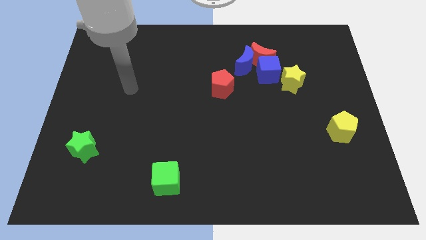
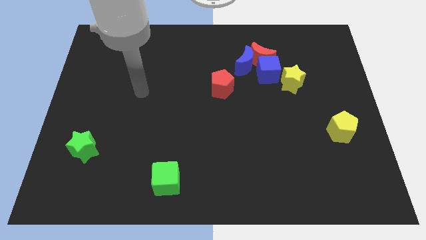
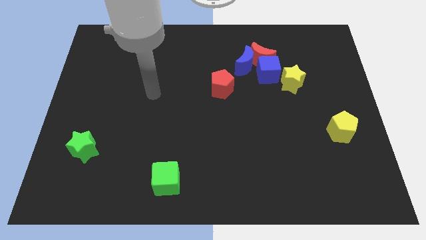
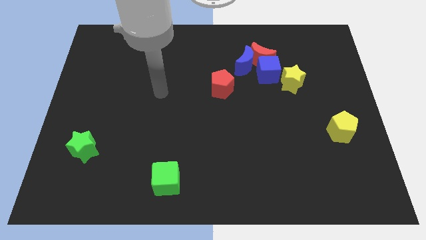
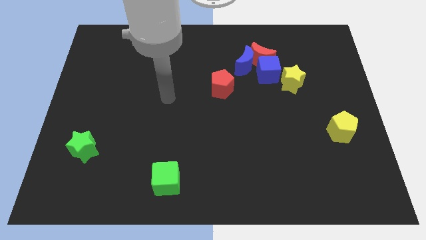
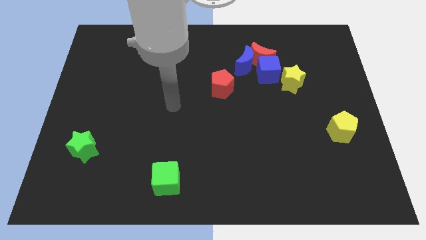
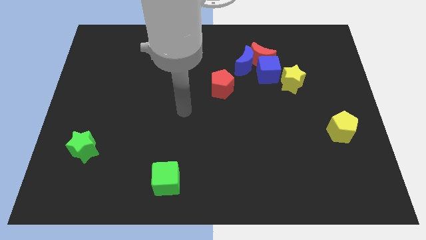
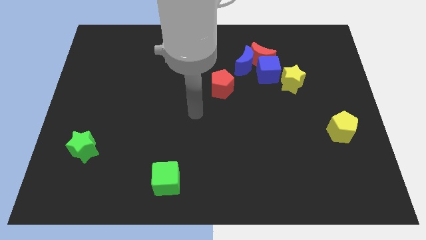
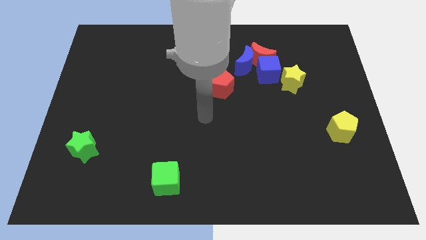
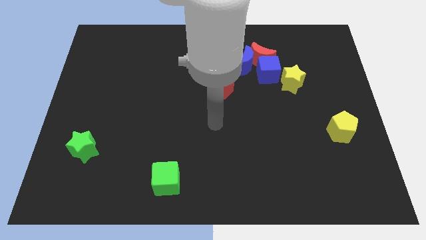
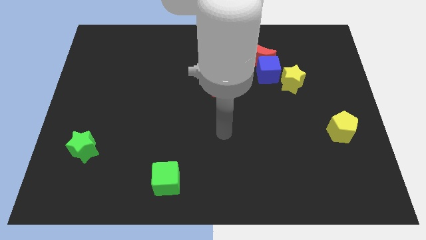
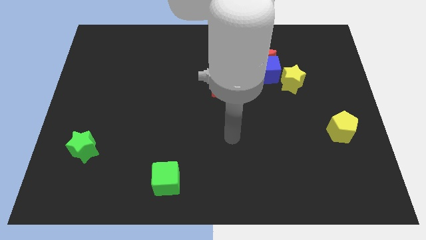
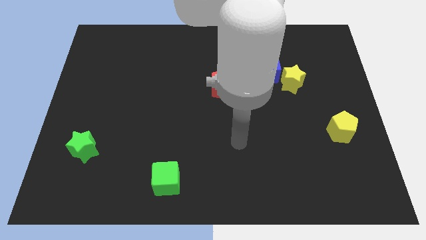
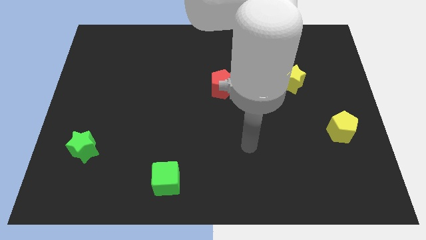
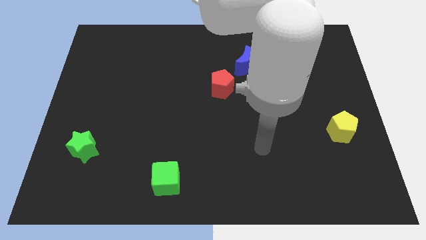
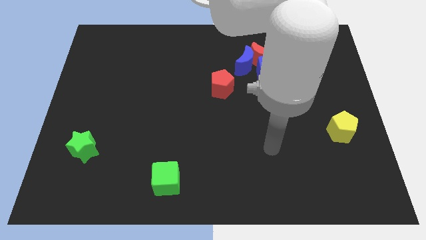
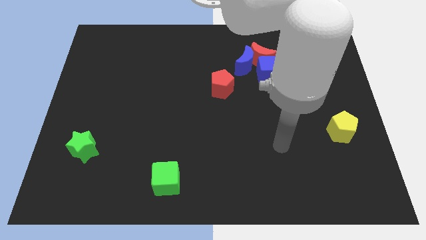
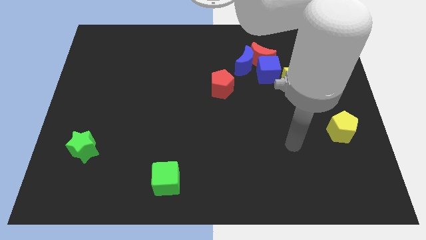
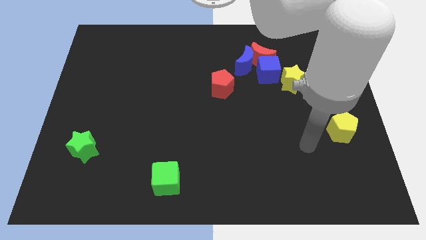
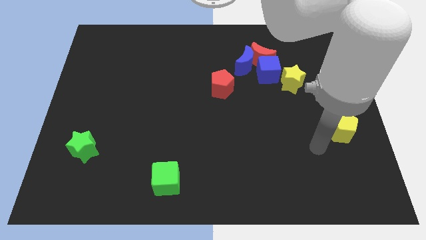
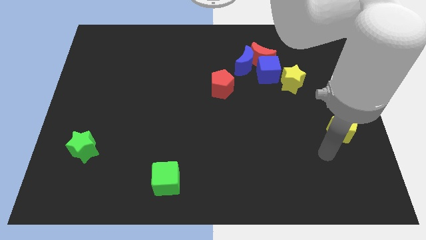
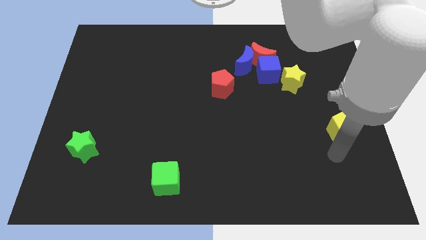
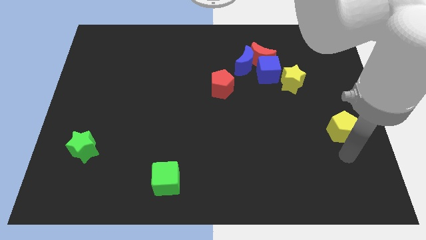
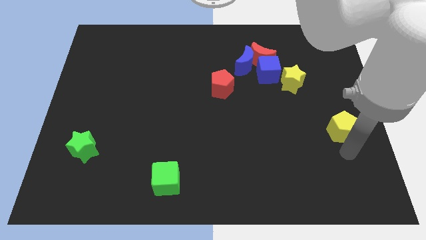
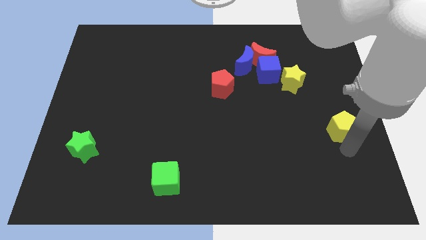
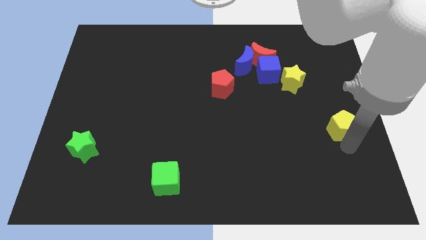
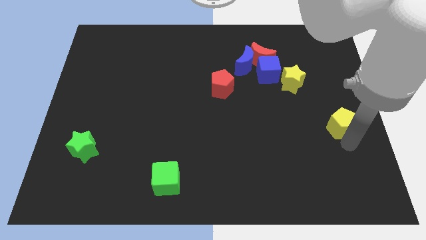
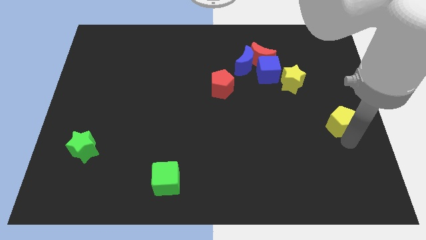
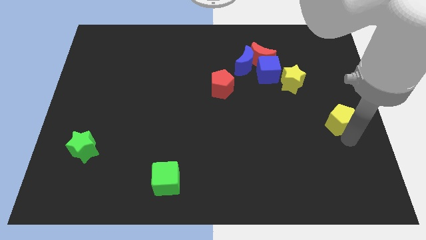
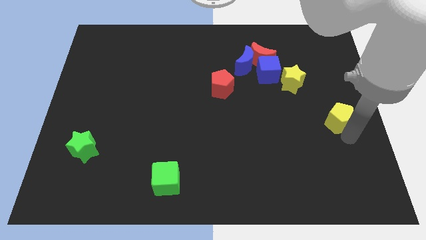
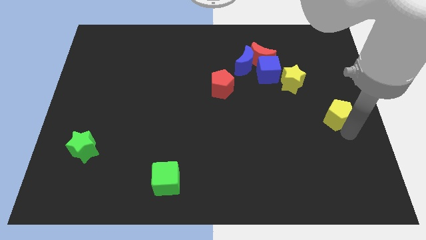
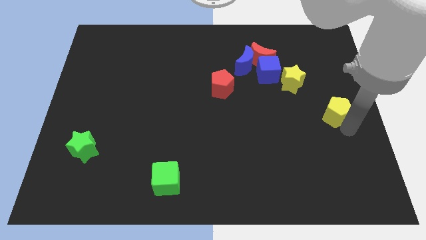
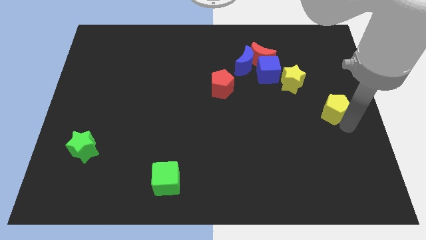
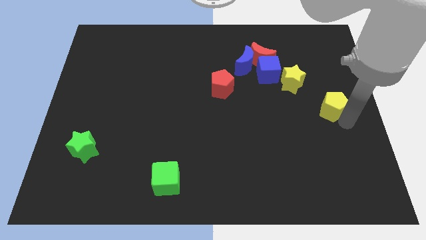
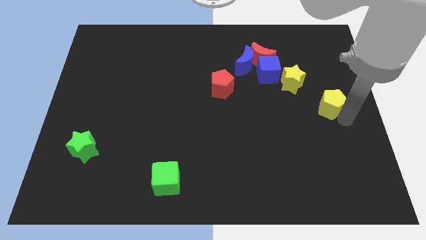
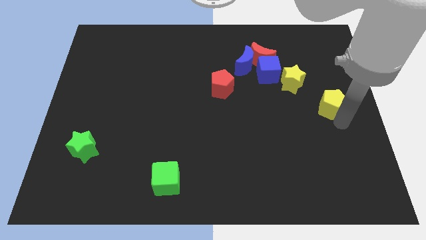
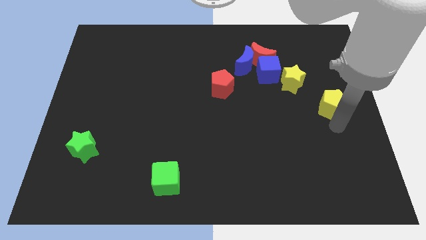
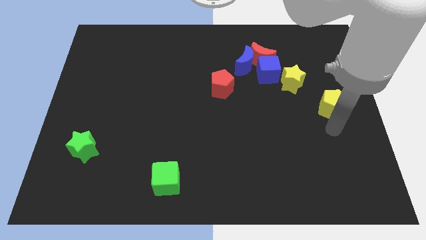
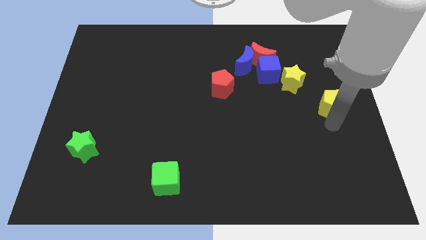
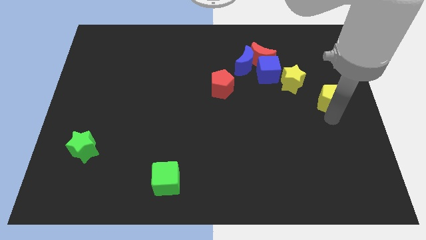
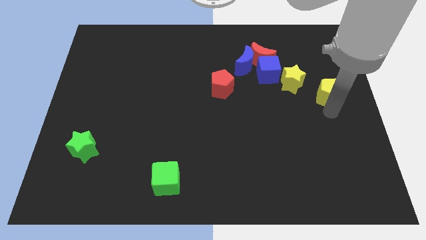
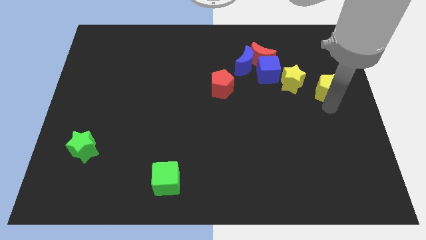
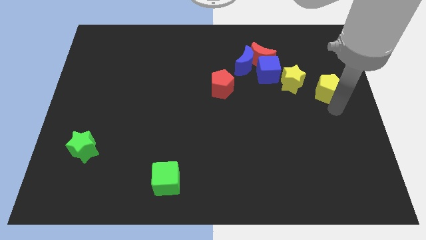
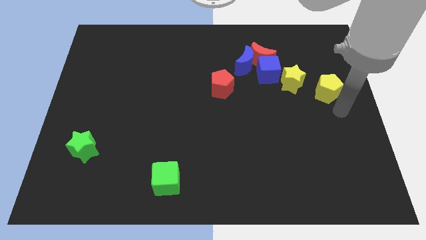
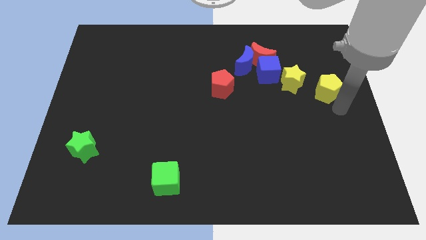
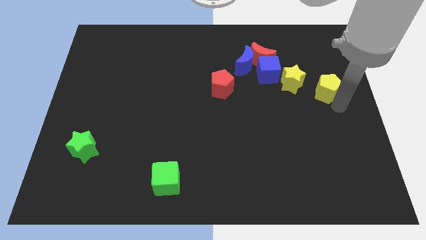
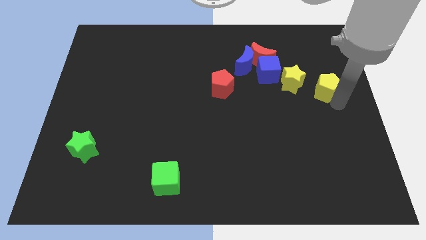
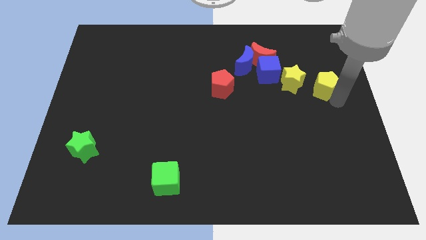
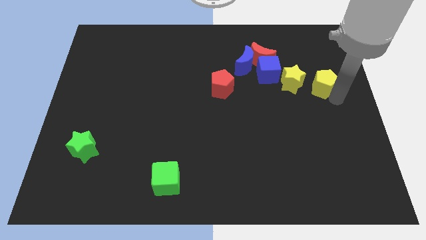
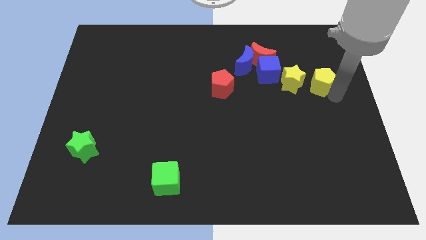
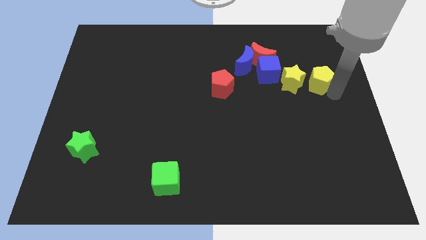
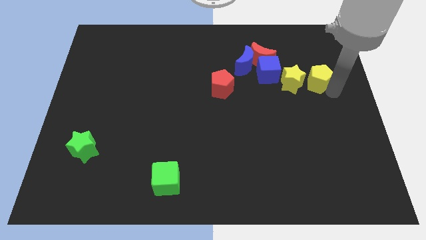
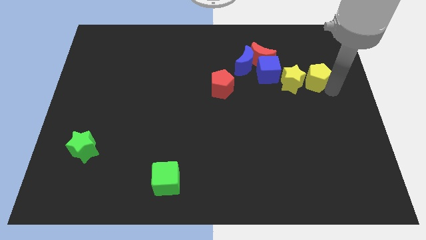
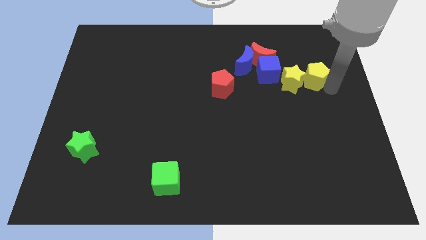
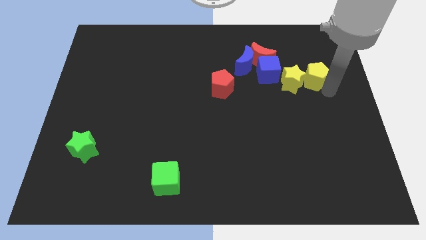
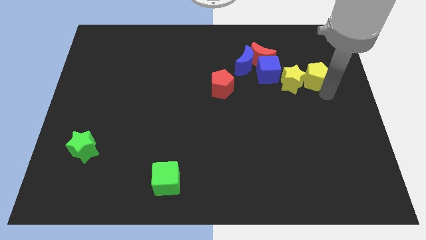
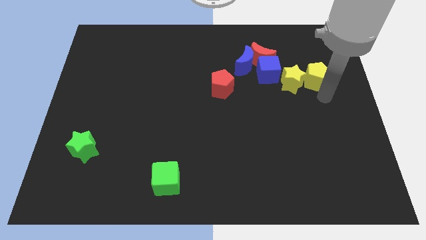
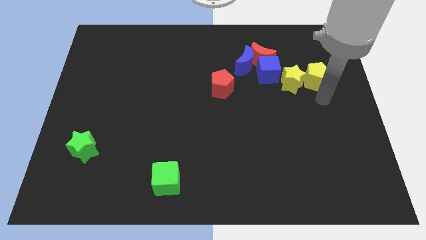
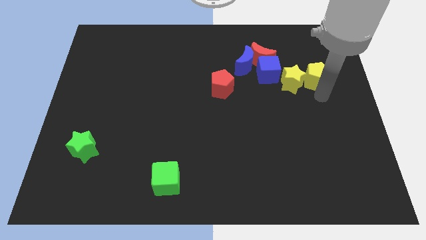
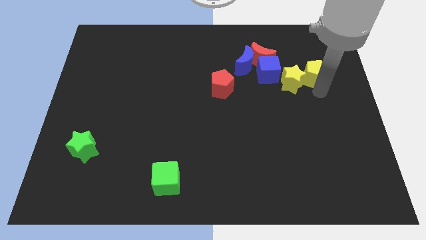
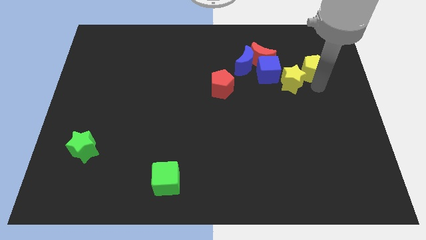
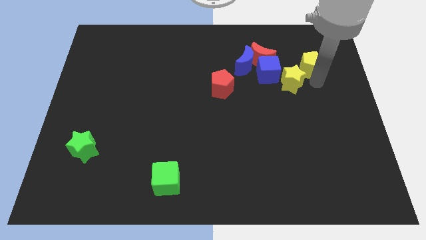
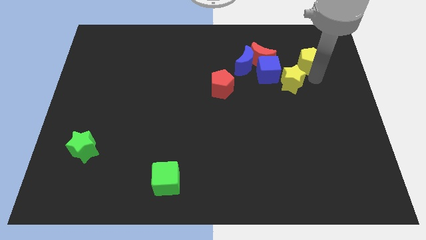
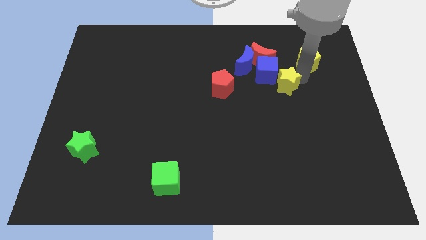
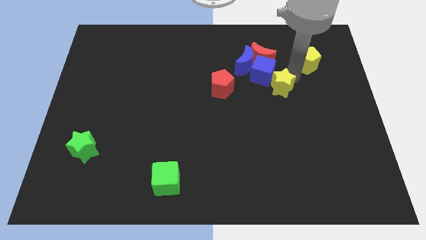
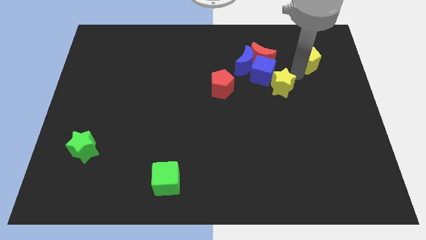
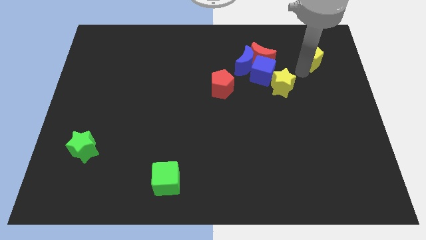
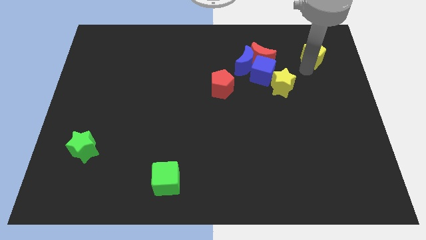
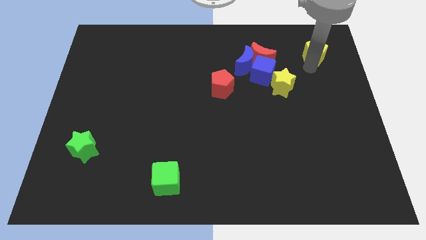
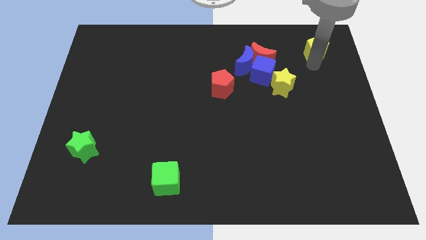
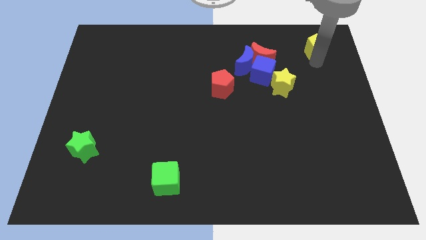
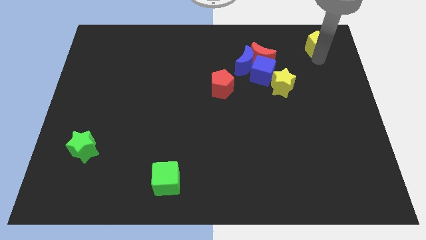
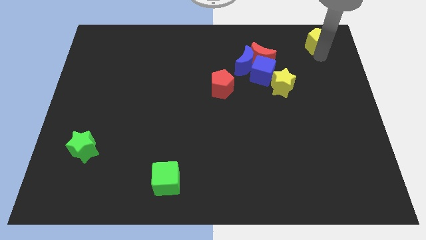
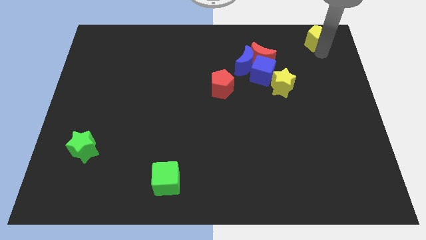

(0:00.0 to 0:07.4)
move the yellow pentagon to the top right of the board
